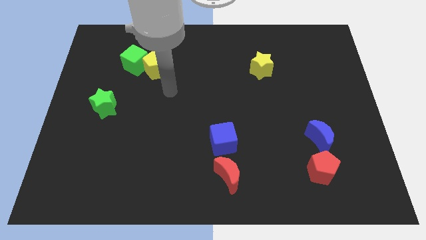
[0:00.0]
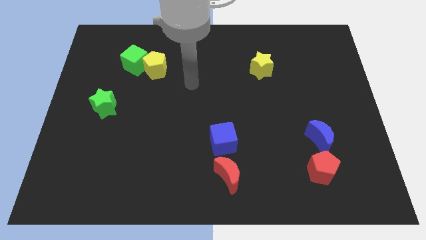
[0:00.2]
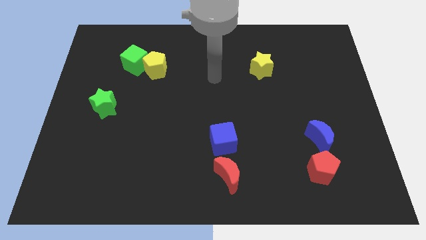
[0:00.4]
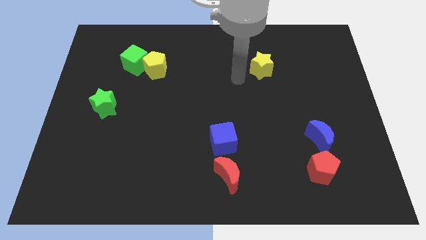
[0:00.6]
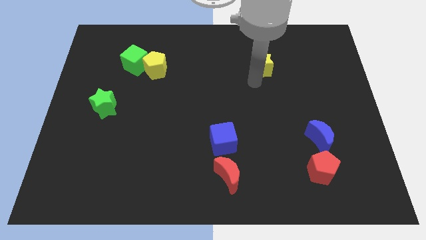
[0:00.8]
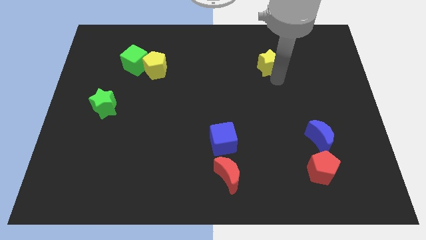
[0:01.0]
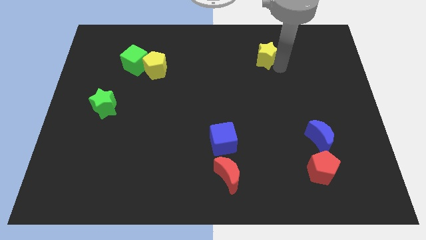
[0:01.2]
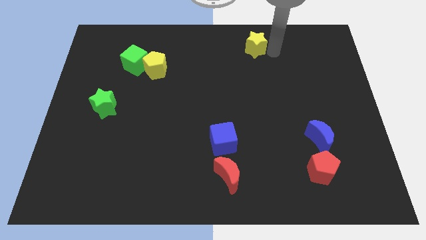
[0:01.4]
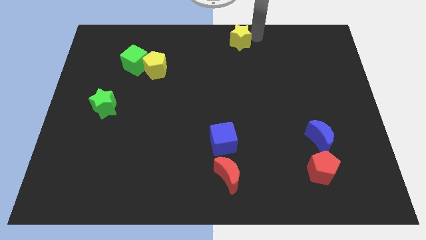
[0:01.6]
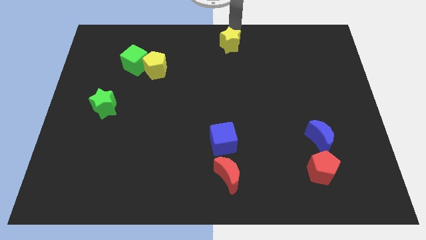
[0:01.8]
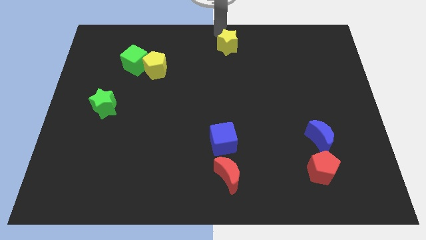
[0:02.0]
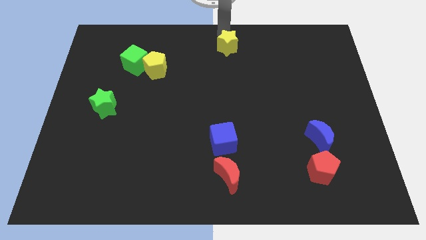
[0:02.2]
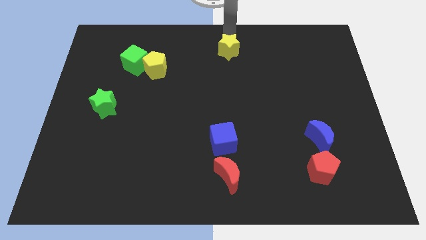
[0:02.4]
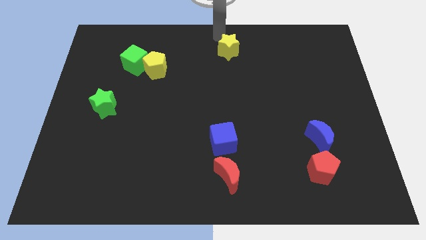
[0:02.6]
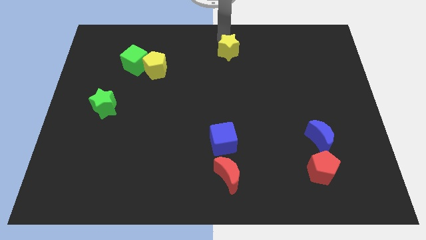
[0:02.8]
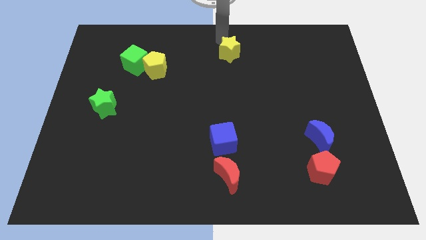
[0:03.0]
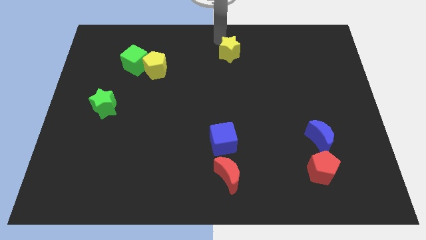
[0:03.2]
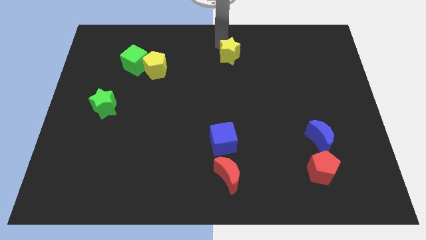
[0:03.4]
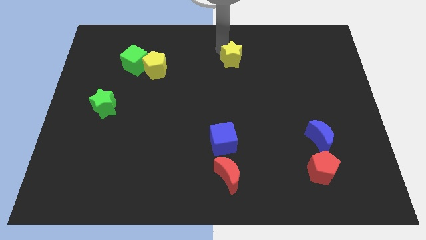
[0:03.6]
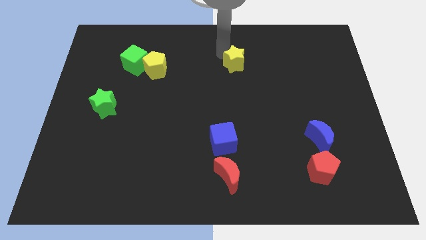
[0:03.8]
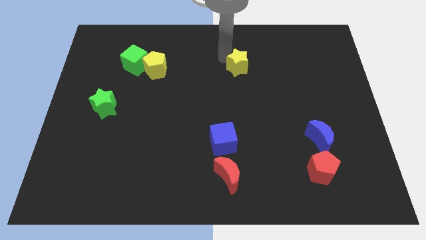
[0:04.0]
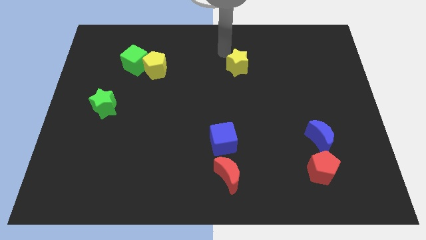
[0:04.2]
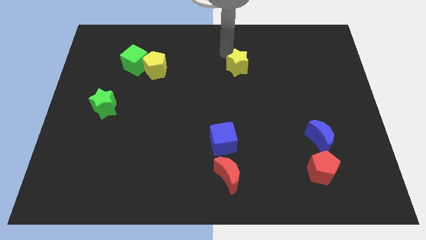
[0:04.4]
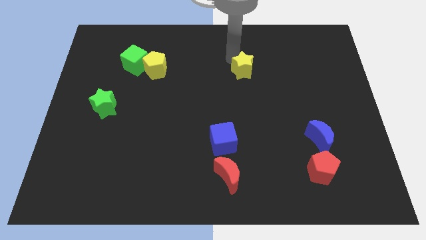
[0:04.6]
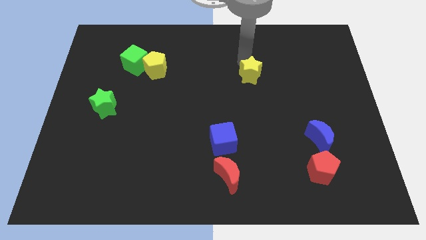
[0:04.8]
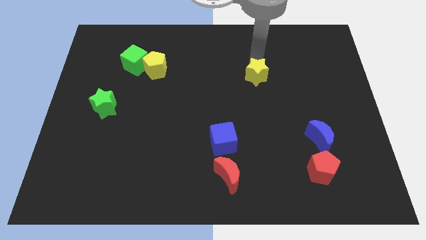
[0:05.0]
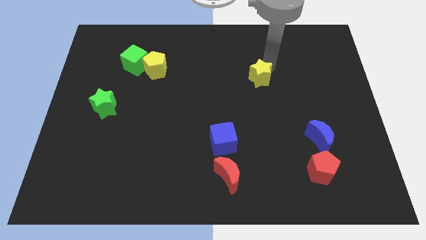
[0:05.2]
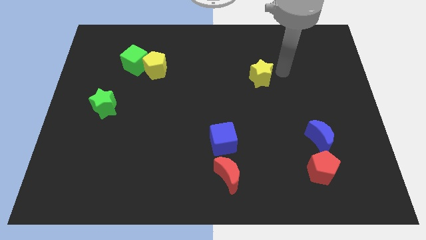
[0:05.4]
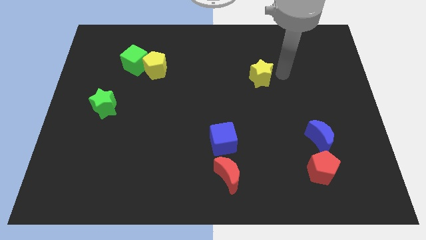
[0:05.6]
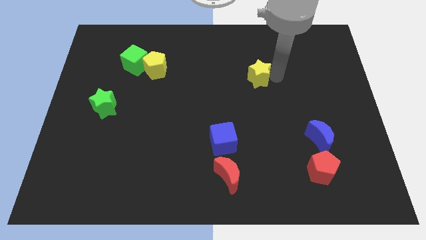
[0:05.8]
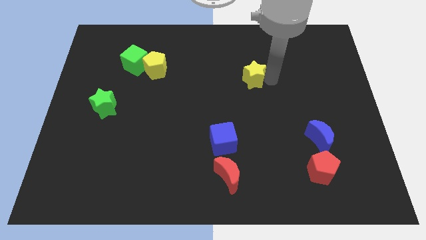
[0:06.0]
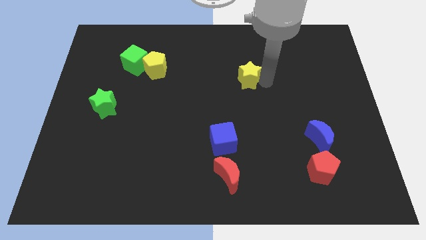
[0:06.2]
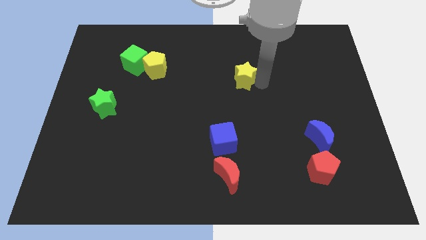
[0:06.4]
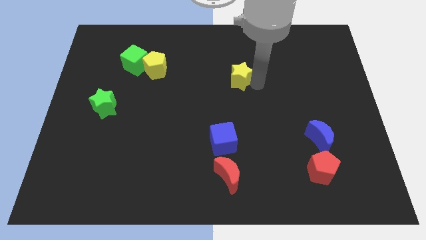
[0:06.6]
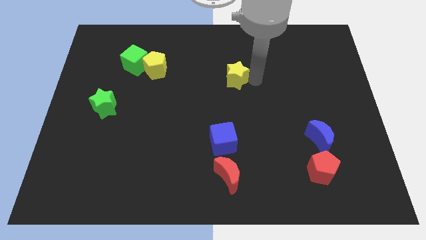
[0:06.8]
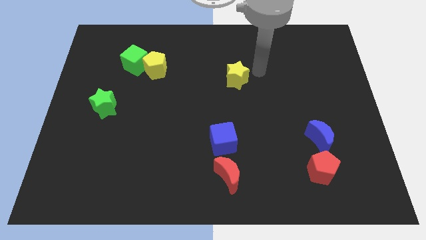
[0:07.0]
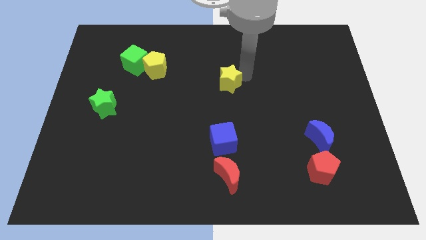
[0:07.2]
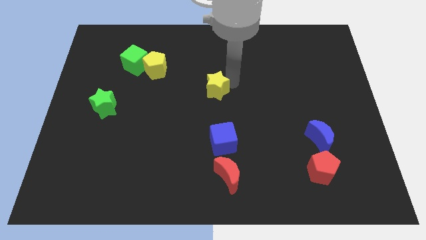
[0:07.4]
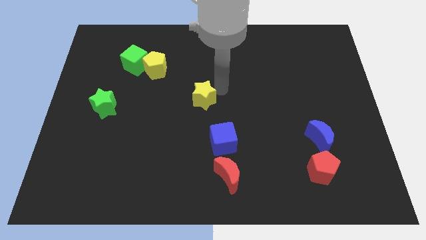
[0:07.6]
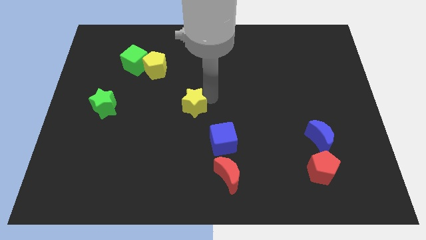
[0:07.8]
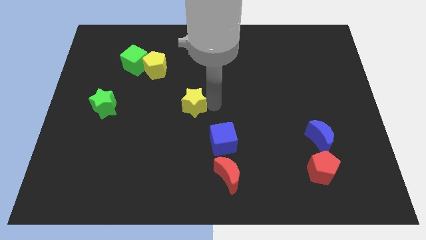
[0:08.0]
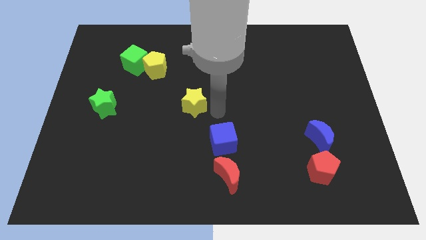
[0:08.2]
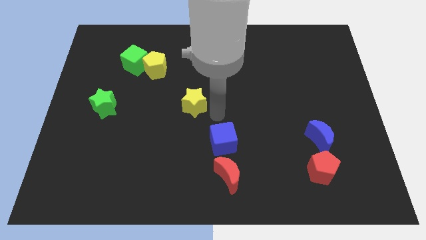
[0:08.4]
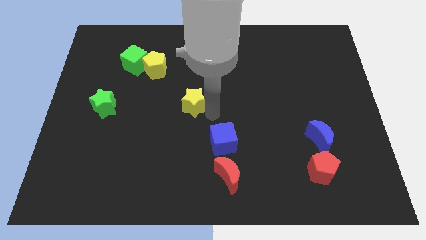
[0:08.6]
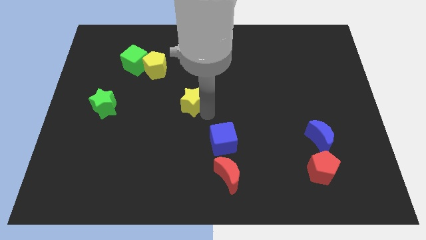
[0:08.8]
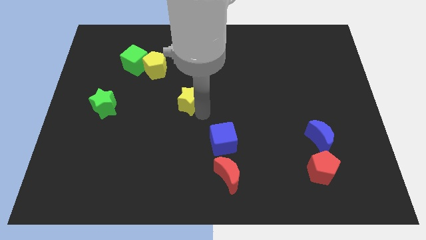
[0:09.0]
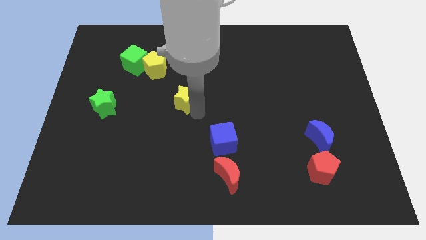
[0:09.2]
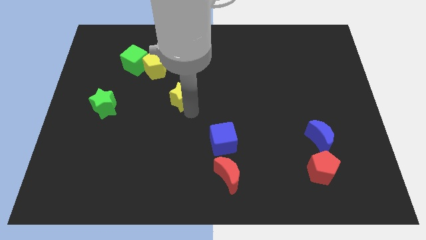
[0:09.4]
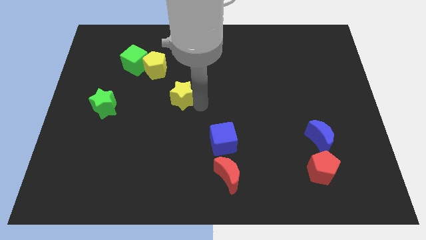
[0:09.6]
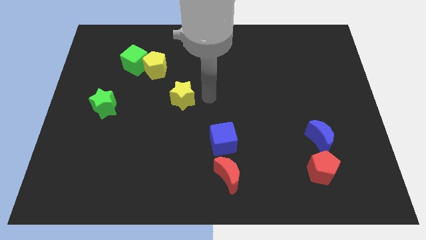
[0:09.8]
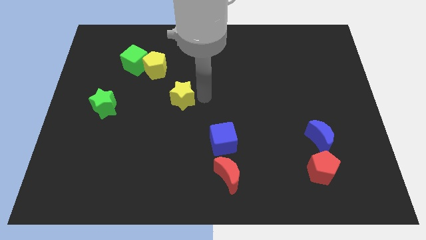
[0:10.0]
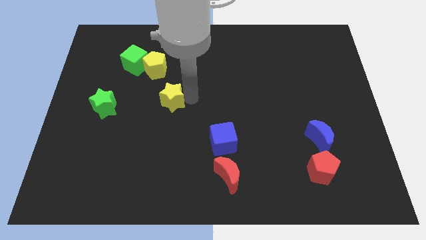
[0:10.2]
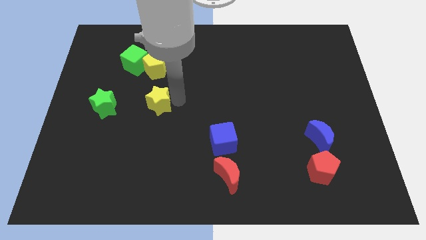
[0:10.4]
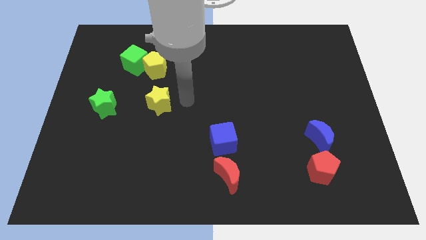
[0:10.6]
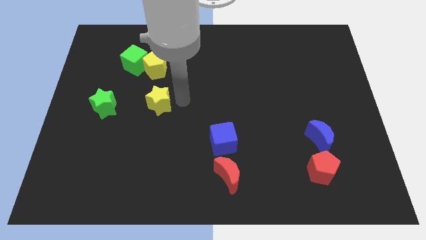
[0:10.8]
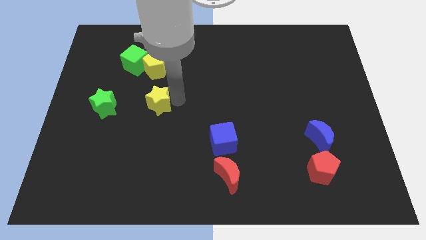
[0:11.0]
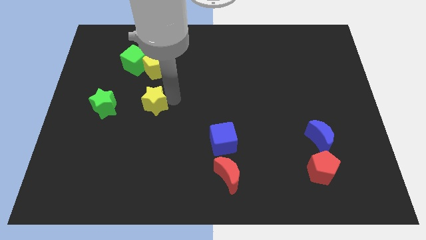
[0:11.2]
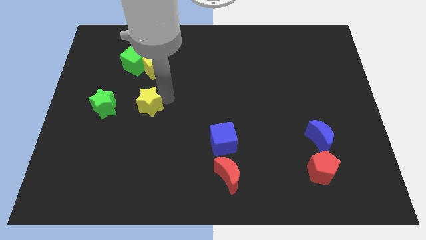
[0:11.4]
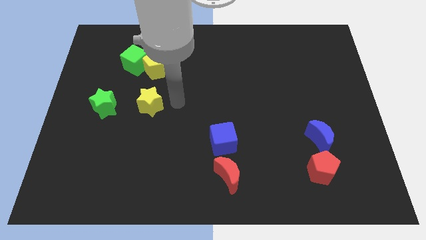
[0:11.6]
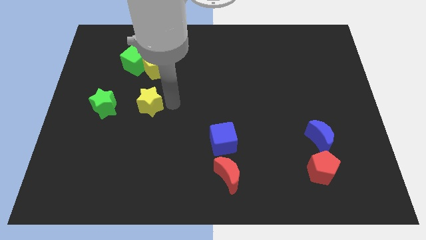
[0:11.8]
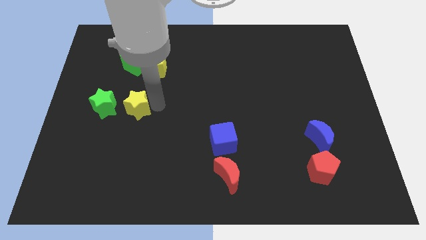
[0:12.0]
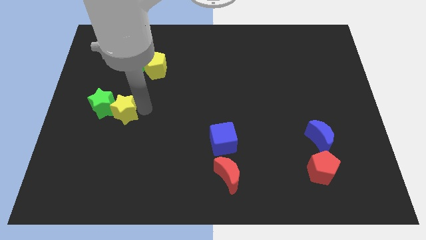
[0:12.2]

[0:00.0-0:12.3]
slide the yellow star to the green star

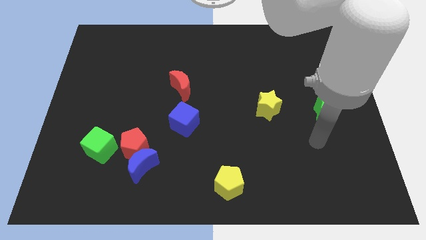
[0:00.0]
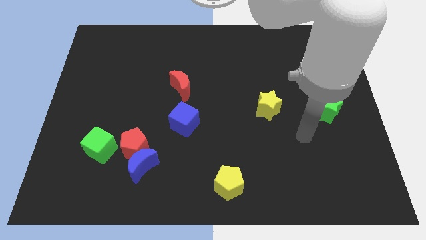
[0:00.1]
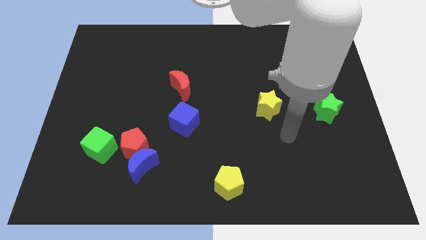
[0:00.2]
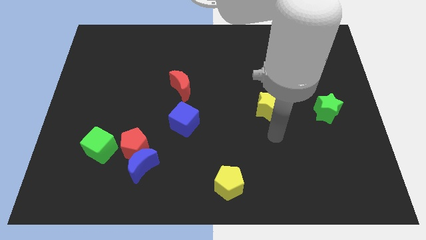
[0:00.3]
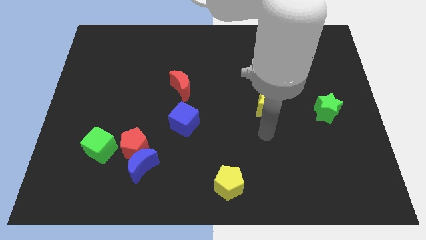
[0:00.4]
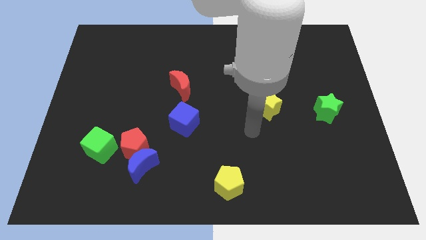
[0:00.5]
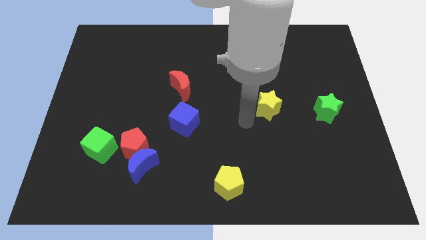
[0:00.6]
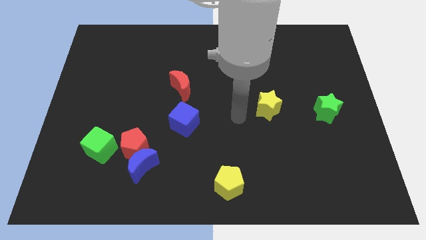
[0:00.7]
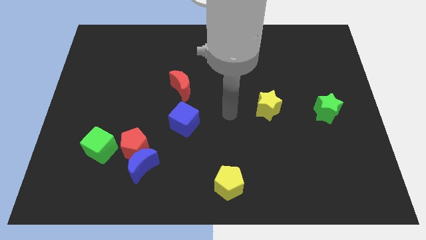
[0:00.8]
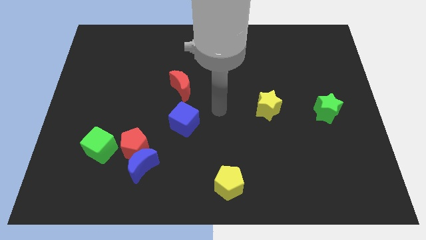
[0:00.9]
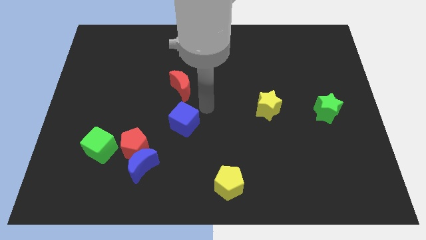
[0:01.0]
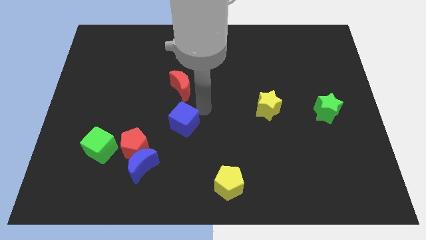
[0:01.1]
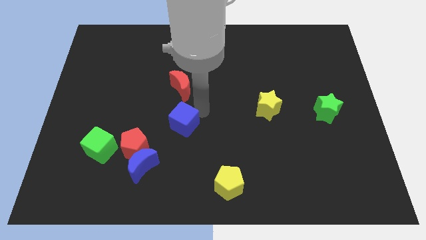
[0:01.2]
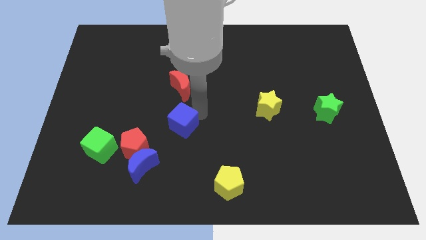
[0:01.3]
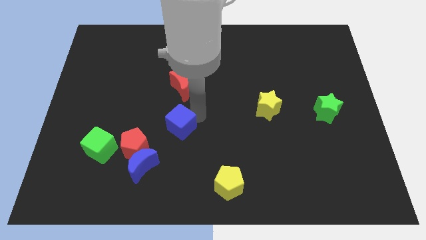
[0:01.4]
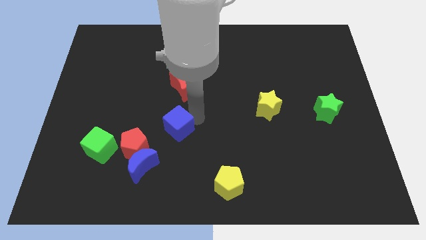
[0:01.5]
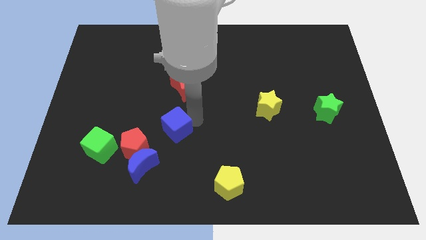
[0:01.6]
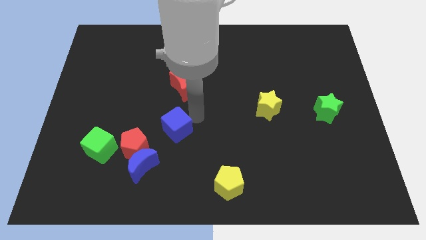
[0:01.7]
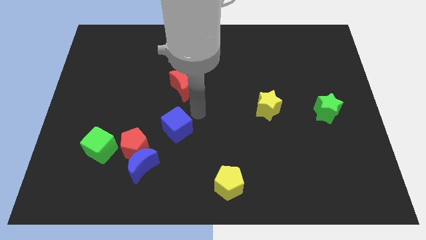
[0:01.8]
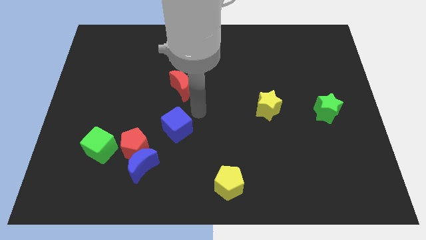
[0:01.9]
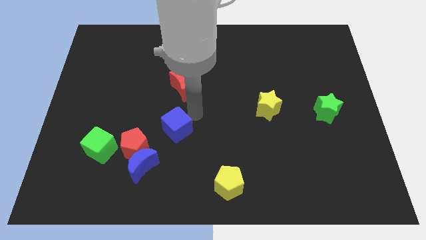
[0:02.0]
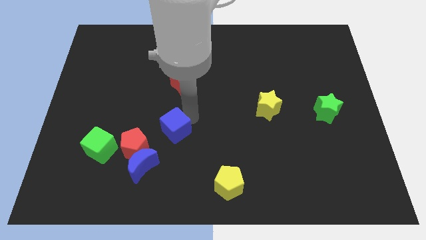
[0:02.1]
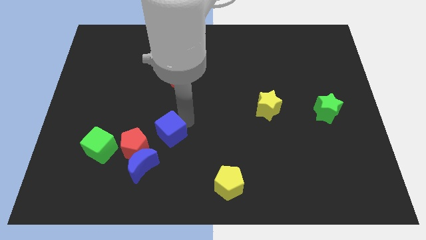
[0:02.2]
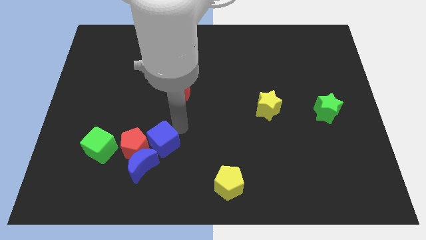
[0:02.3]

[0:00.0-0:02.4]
put the blue cube towards the red pentagon
